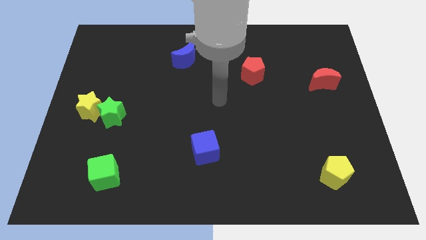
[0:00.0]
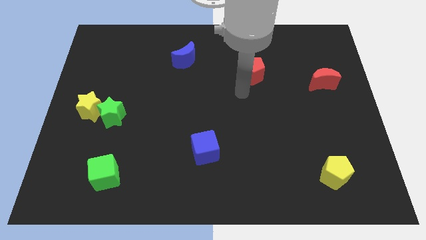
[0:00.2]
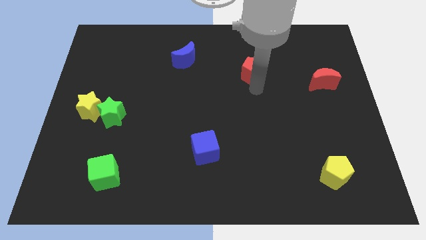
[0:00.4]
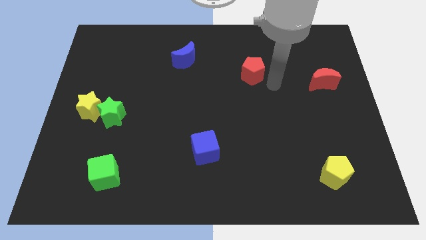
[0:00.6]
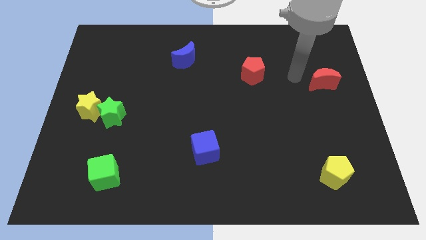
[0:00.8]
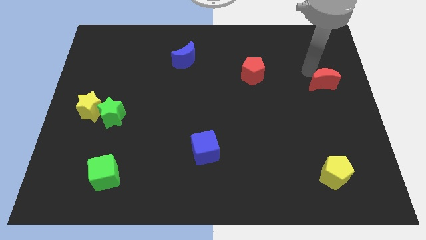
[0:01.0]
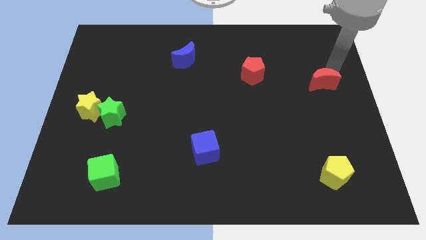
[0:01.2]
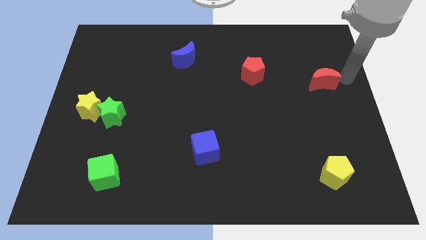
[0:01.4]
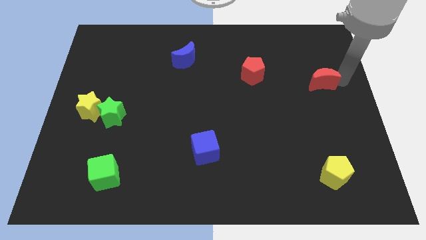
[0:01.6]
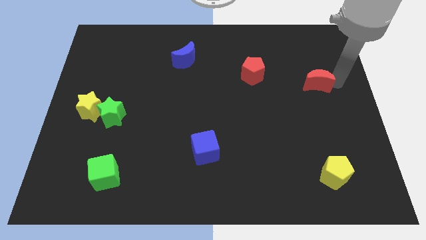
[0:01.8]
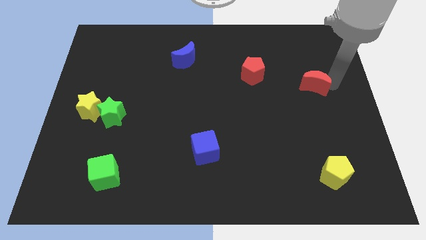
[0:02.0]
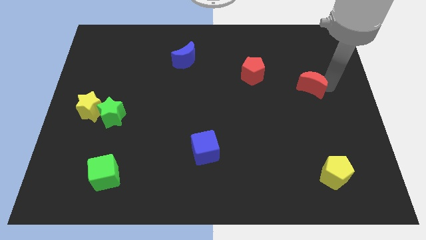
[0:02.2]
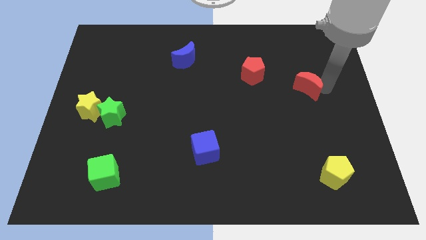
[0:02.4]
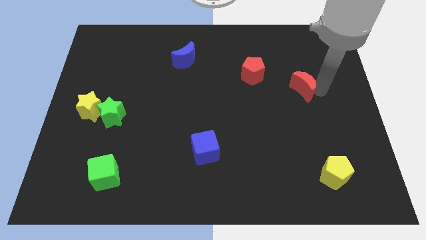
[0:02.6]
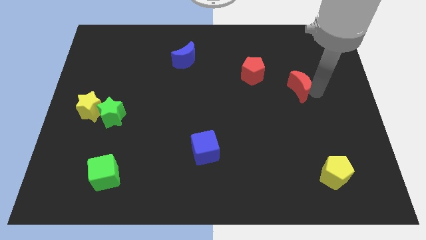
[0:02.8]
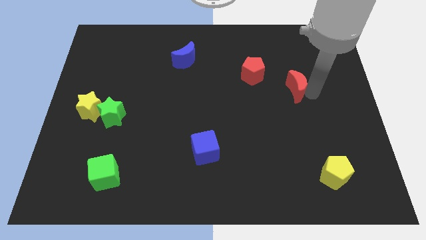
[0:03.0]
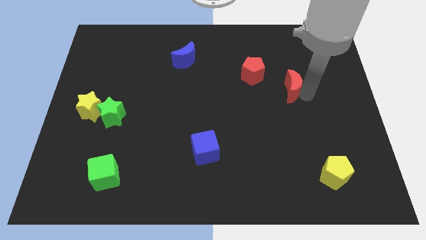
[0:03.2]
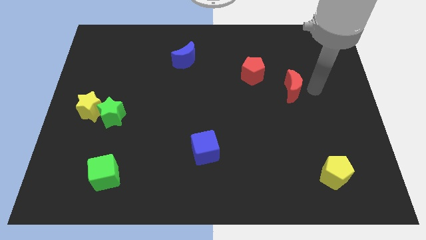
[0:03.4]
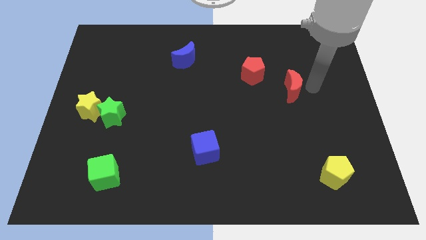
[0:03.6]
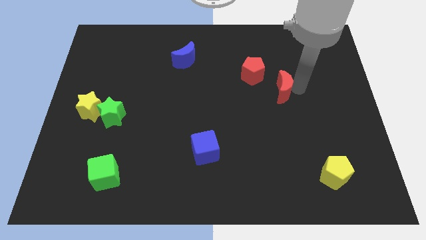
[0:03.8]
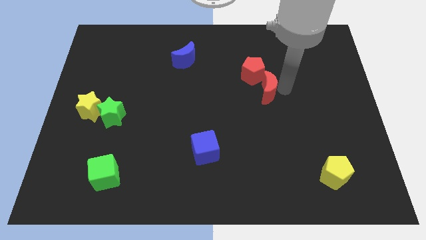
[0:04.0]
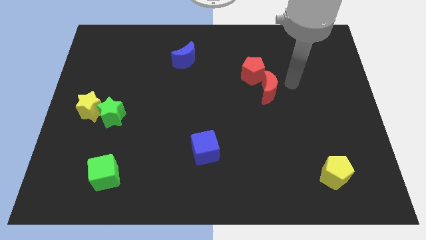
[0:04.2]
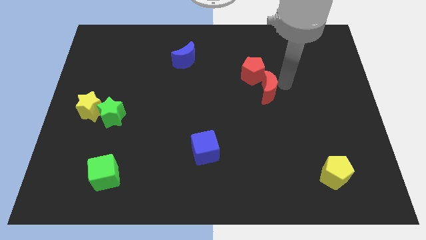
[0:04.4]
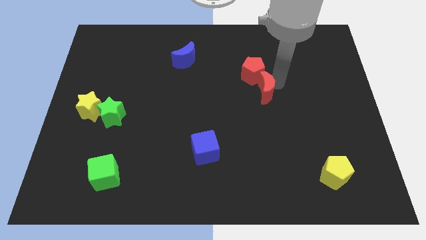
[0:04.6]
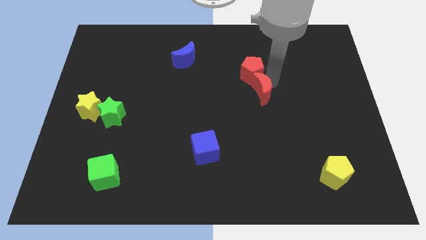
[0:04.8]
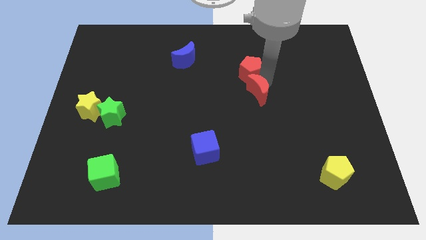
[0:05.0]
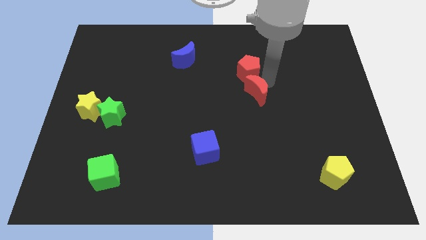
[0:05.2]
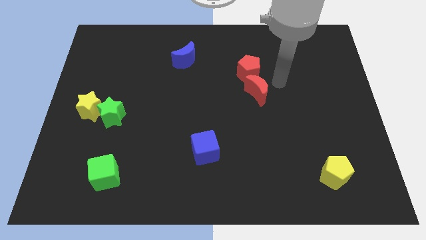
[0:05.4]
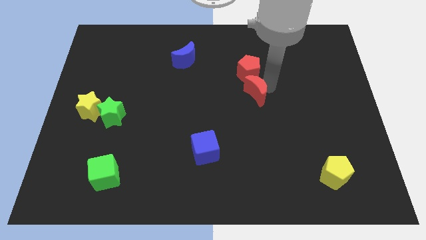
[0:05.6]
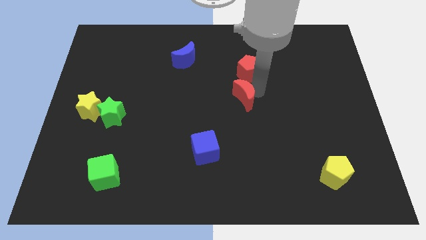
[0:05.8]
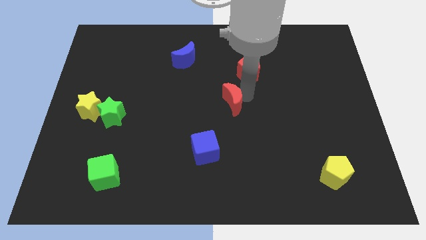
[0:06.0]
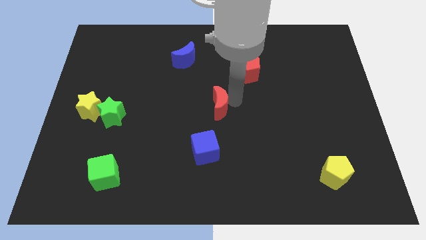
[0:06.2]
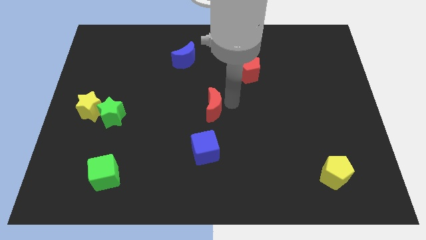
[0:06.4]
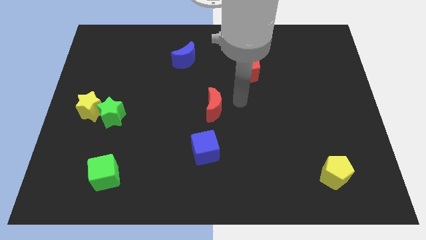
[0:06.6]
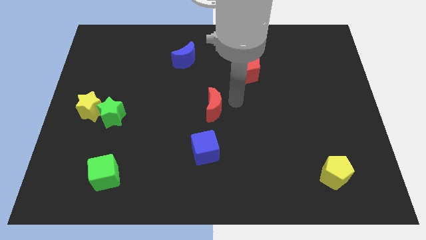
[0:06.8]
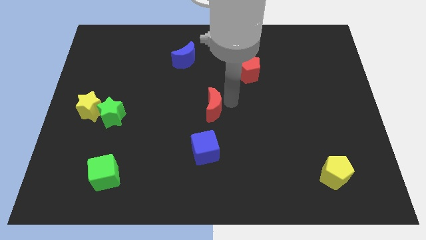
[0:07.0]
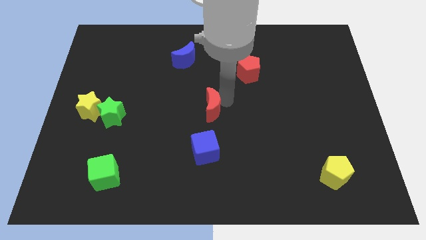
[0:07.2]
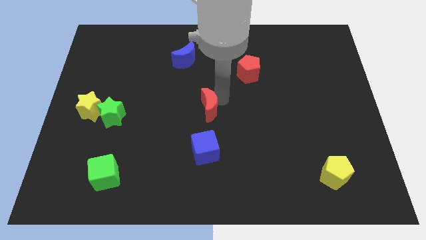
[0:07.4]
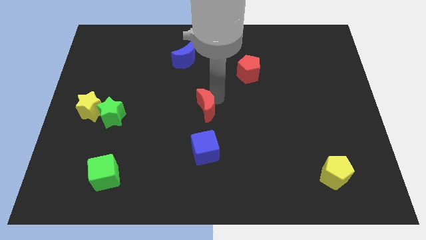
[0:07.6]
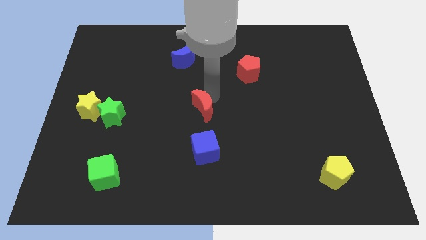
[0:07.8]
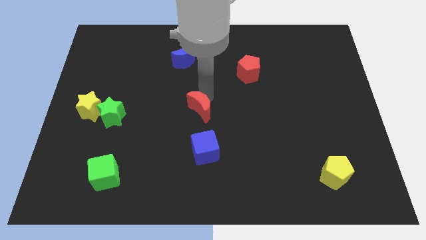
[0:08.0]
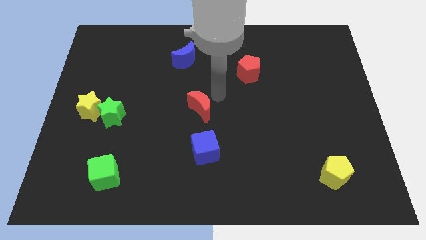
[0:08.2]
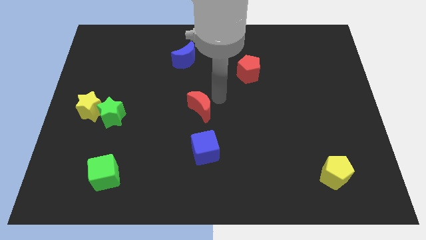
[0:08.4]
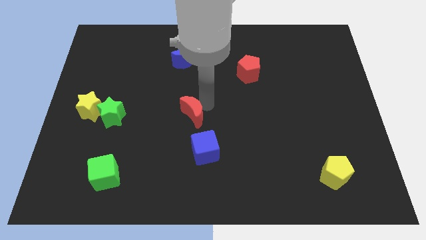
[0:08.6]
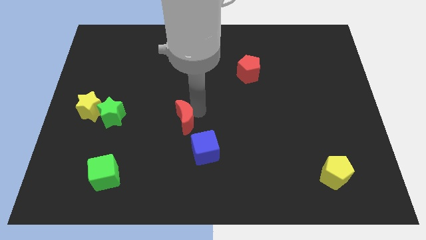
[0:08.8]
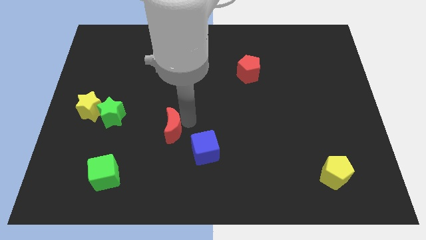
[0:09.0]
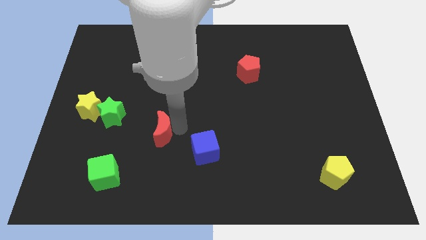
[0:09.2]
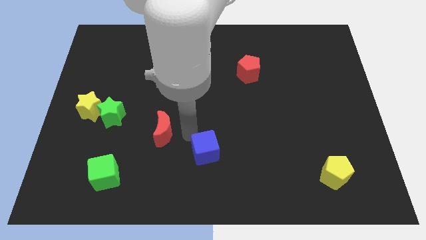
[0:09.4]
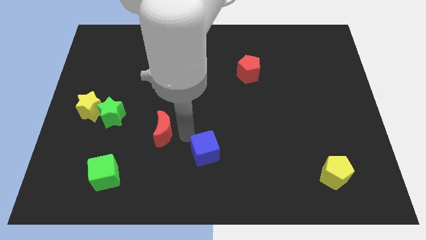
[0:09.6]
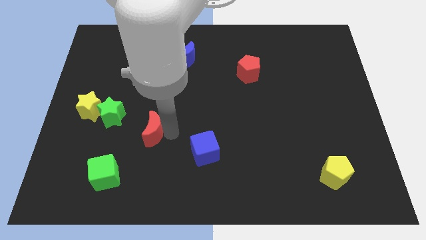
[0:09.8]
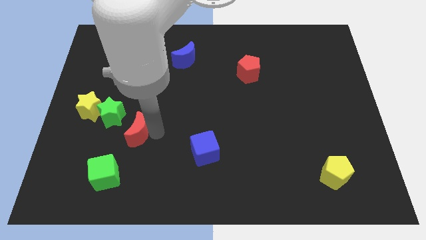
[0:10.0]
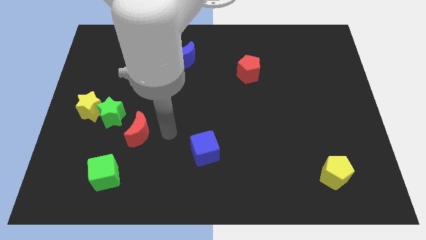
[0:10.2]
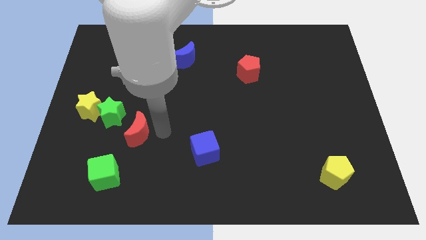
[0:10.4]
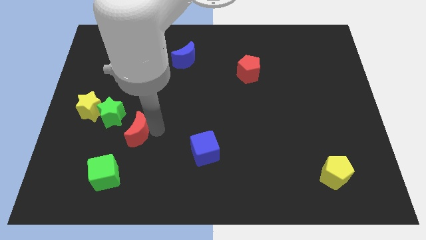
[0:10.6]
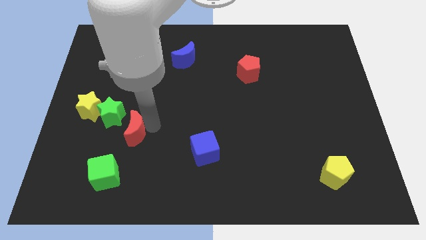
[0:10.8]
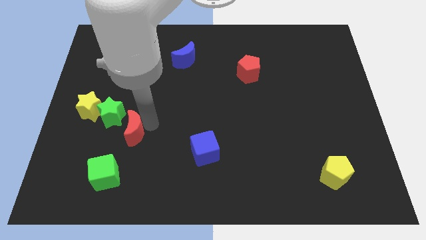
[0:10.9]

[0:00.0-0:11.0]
slide the red moon above the green cube

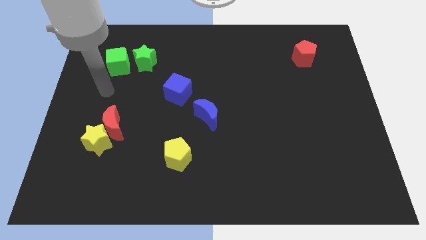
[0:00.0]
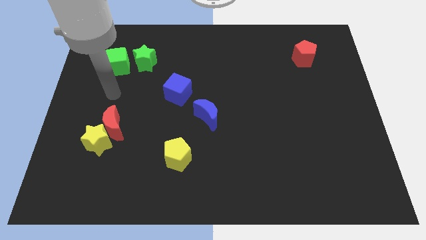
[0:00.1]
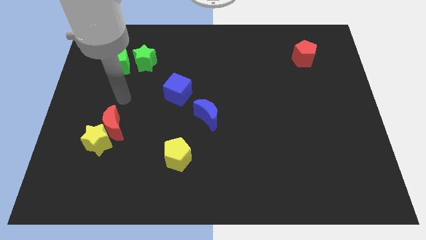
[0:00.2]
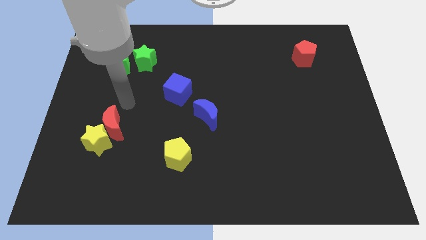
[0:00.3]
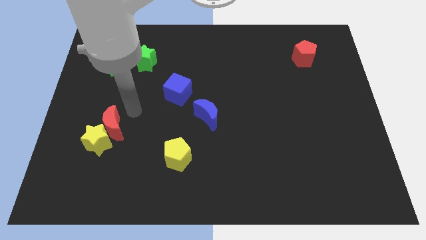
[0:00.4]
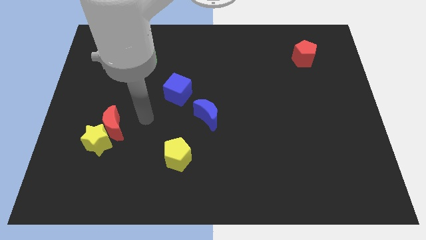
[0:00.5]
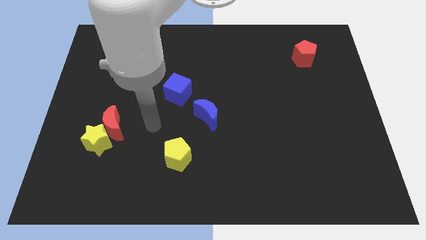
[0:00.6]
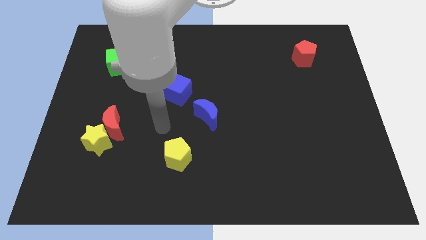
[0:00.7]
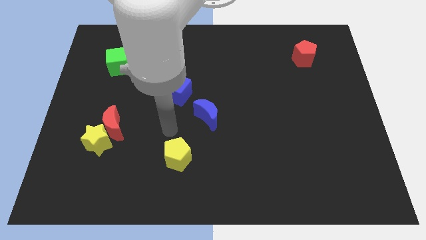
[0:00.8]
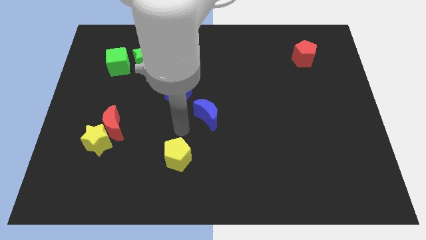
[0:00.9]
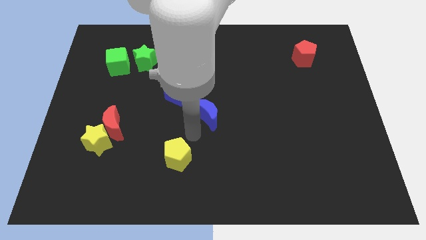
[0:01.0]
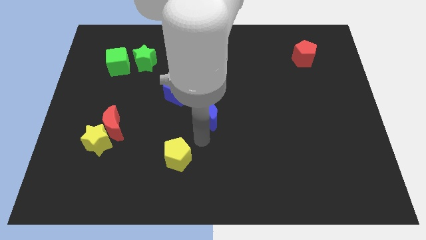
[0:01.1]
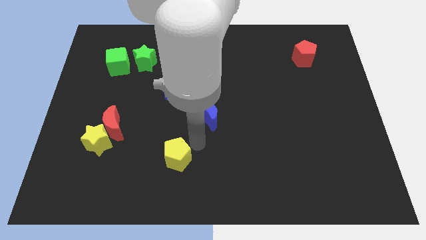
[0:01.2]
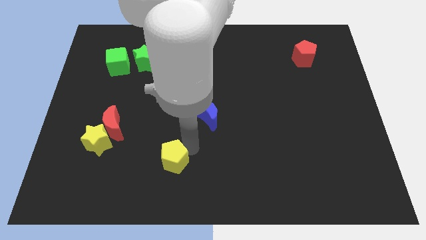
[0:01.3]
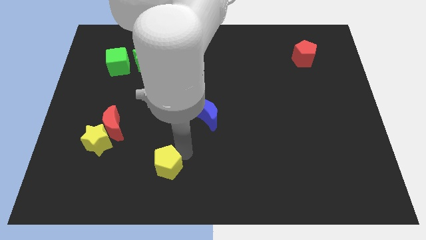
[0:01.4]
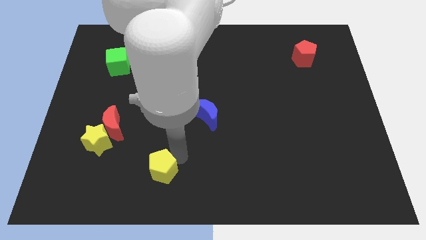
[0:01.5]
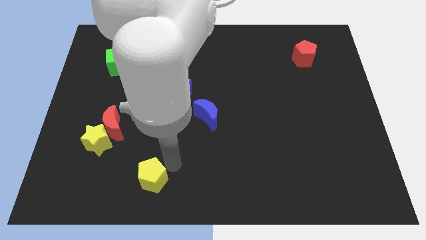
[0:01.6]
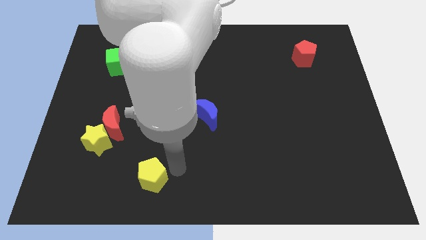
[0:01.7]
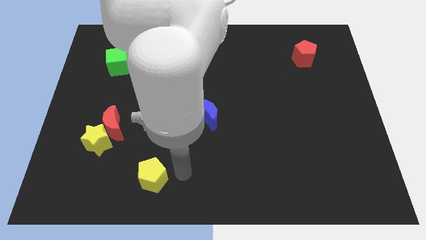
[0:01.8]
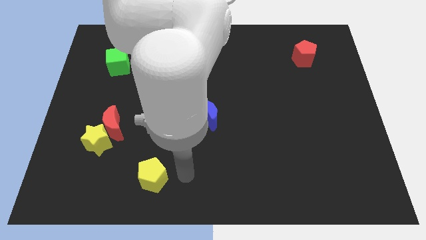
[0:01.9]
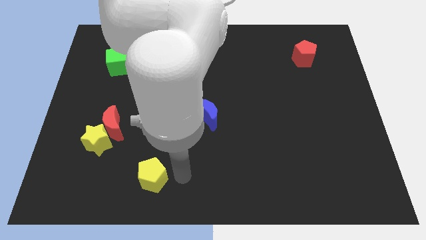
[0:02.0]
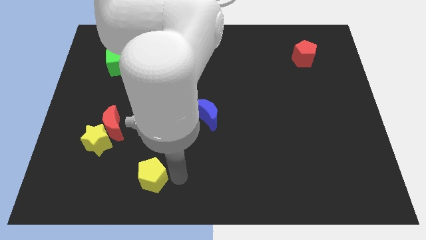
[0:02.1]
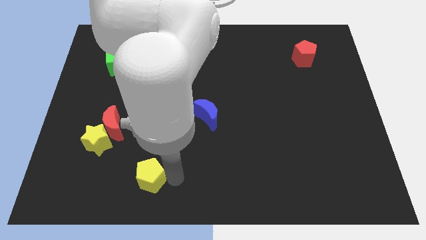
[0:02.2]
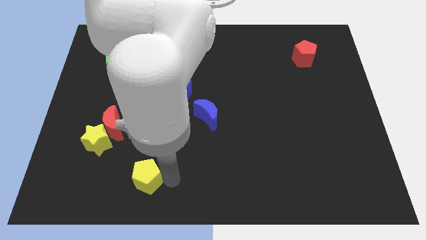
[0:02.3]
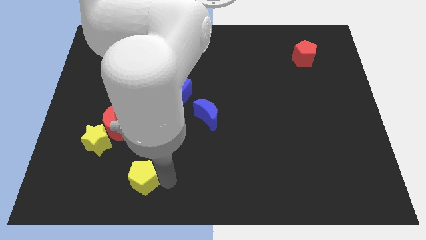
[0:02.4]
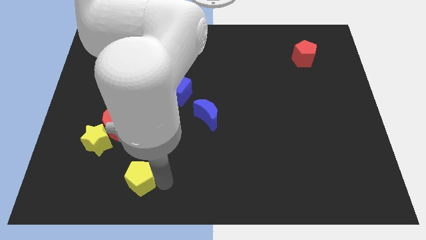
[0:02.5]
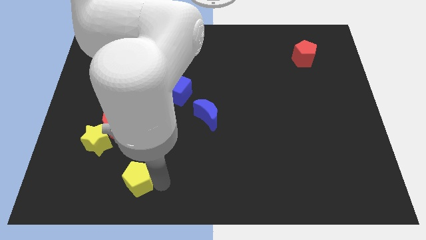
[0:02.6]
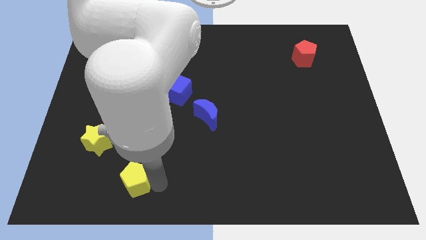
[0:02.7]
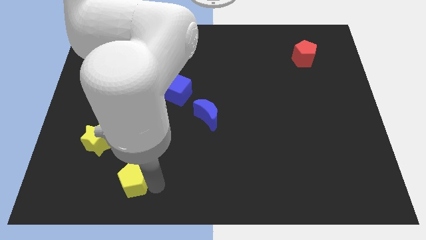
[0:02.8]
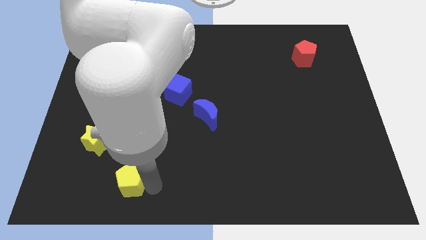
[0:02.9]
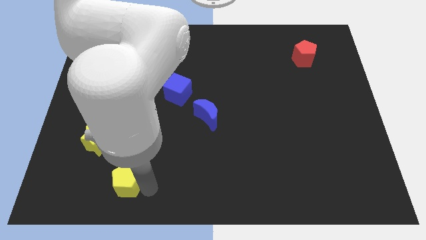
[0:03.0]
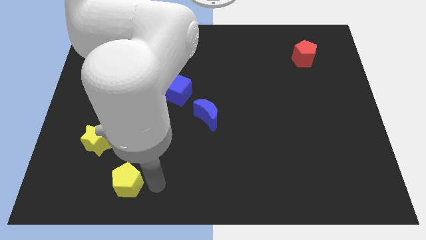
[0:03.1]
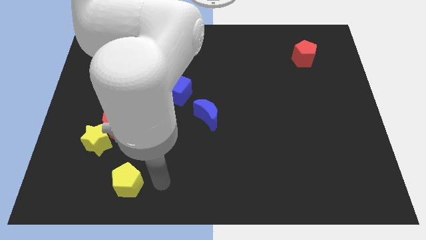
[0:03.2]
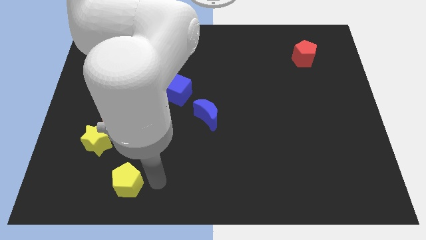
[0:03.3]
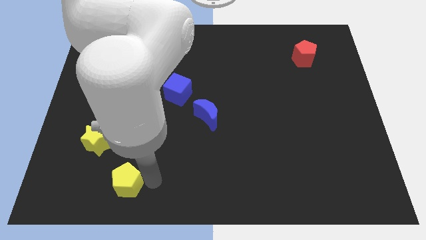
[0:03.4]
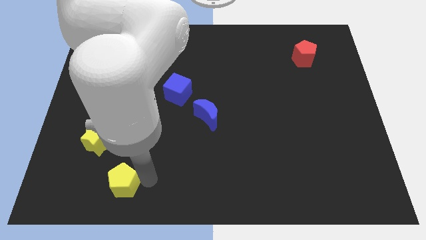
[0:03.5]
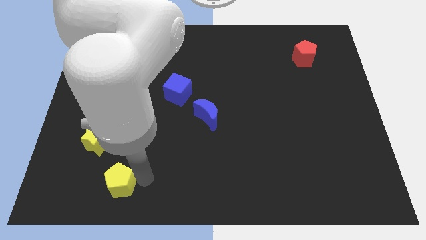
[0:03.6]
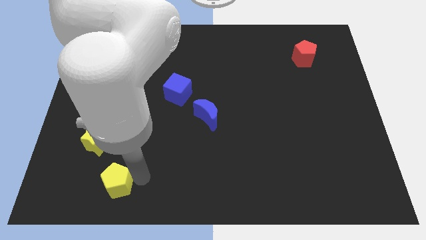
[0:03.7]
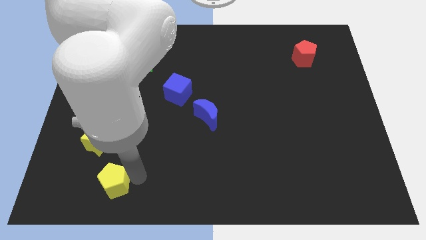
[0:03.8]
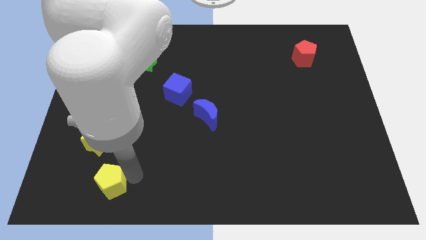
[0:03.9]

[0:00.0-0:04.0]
push the yellow pentagon to the bottom side of the yellow star
